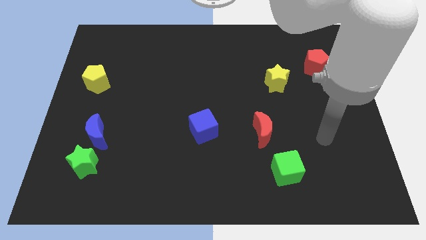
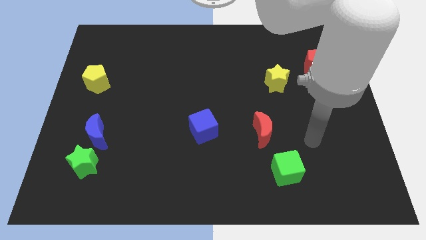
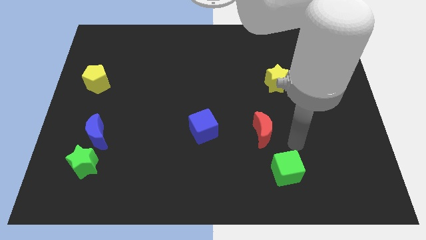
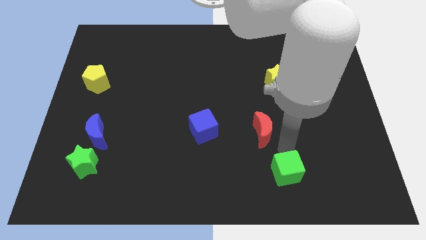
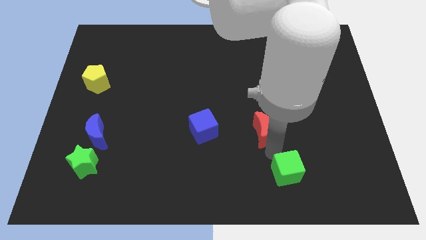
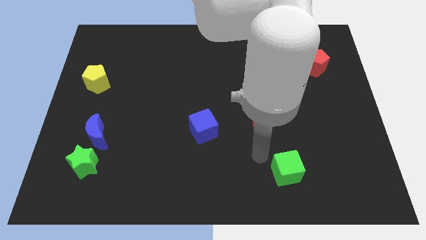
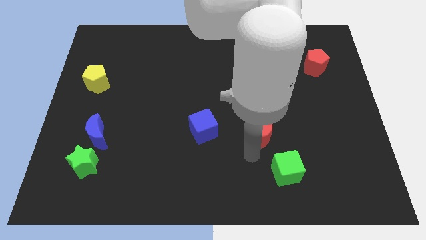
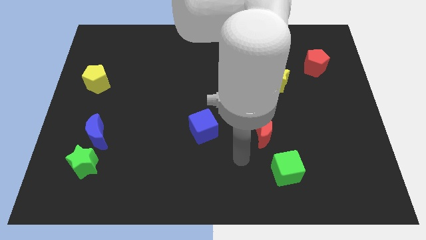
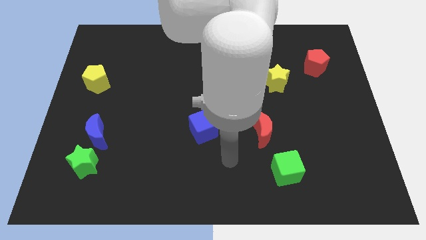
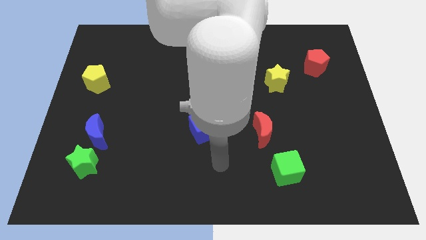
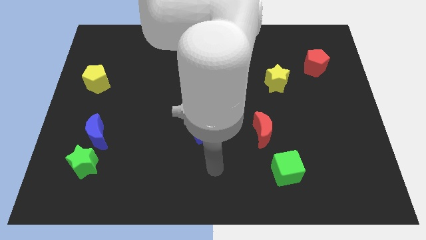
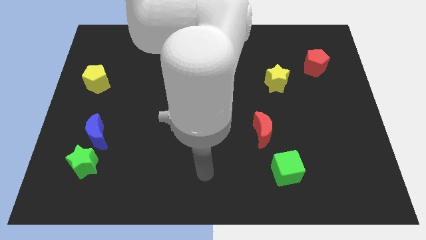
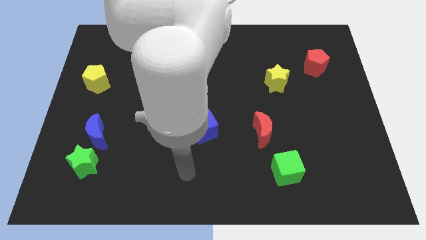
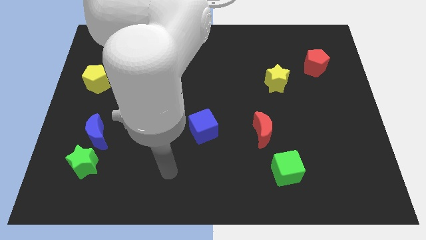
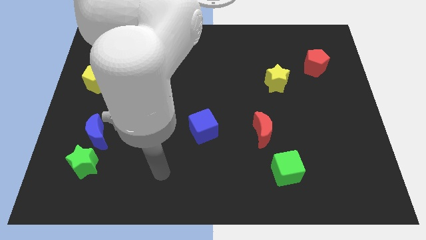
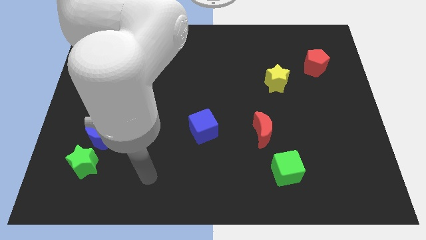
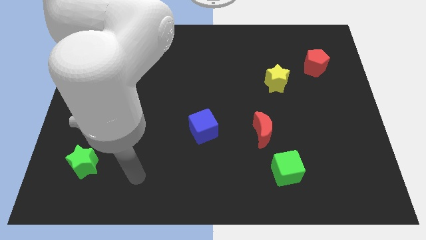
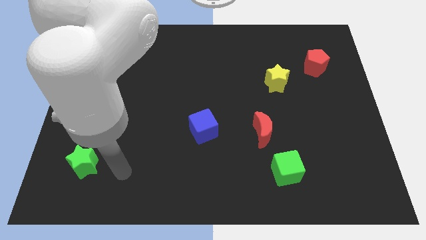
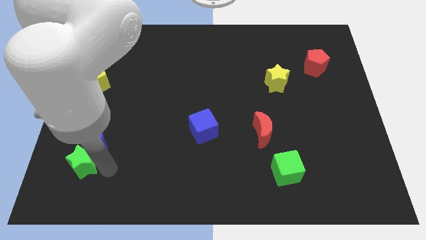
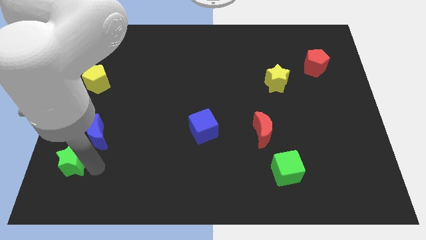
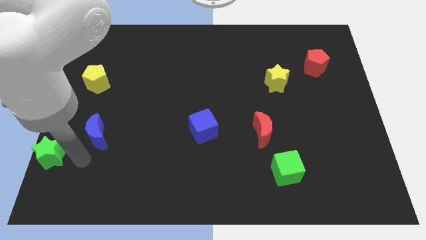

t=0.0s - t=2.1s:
move the blue moon away from the green star

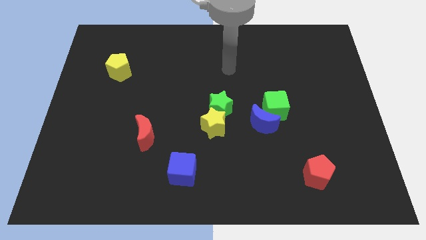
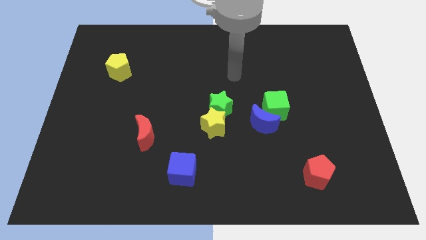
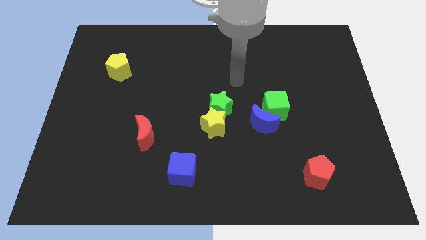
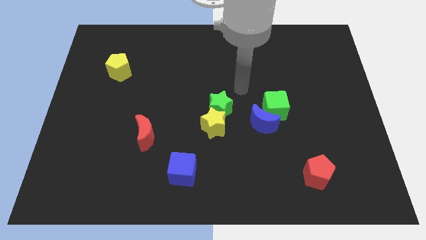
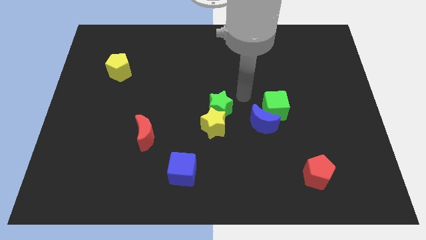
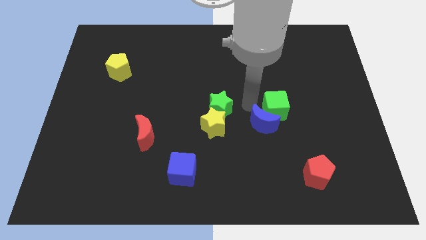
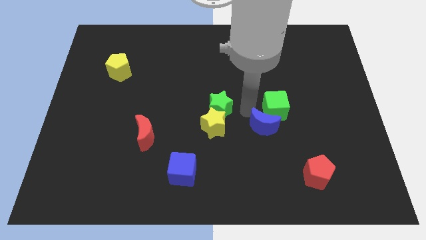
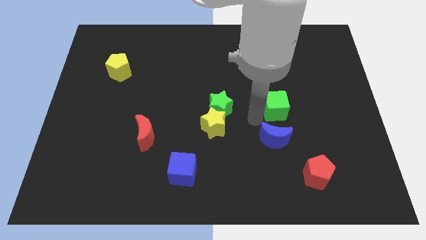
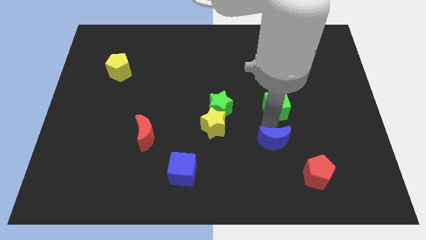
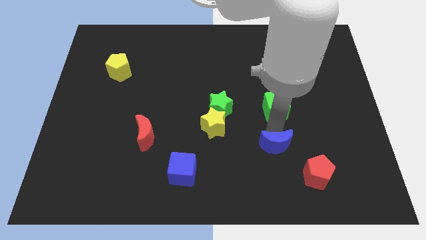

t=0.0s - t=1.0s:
separate the green cube from the blue moon

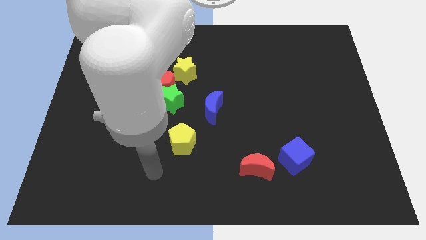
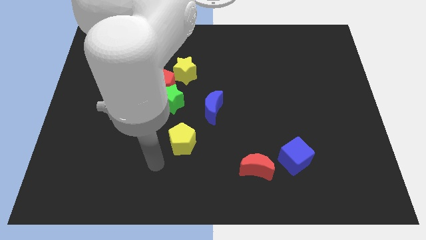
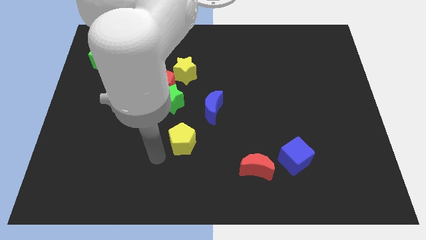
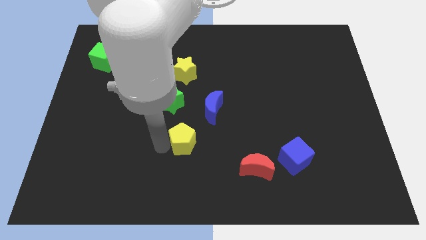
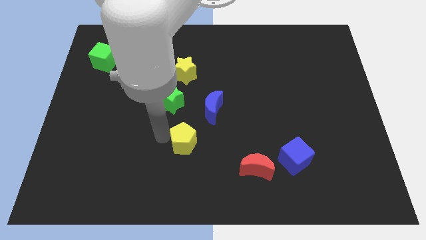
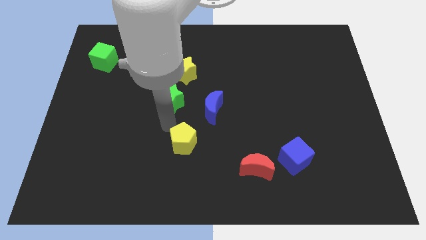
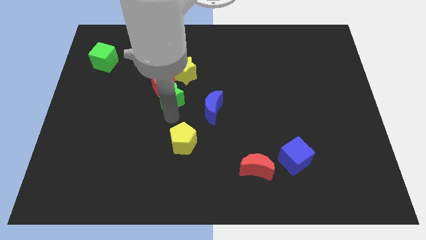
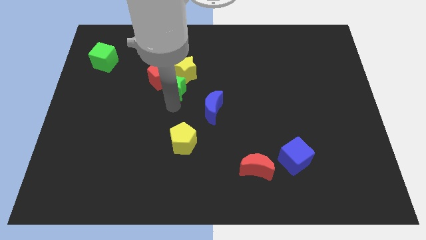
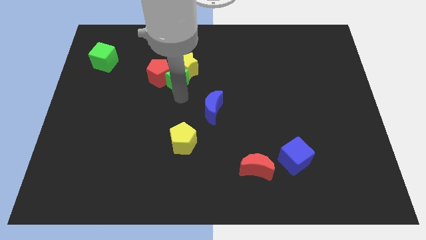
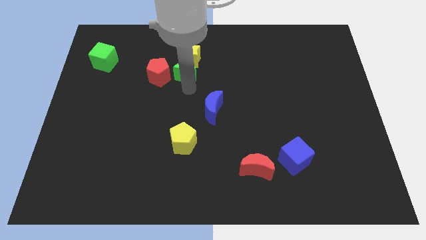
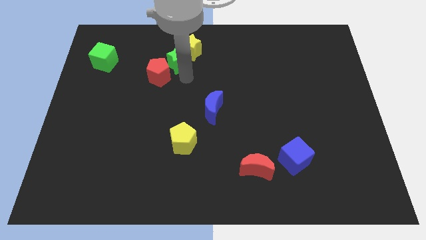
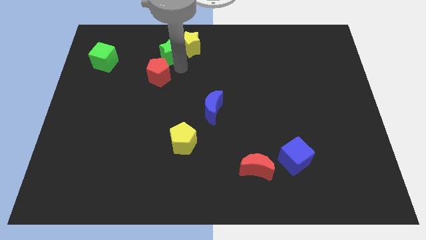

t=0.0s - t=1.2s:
separate the red pentagon from the green star and yellow star

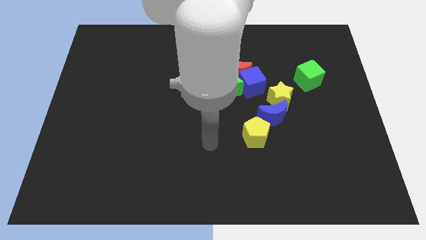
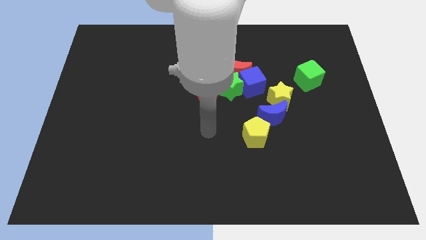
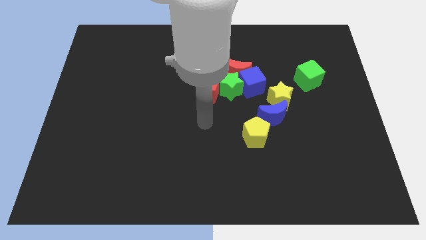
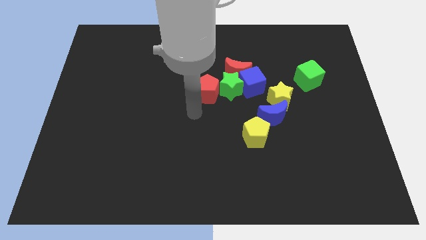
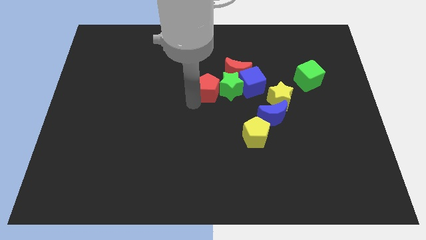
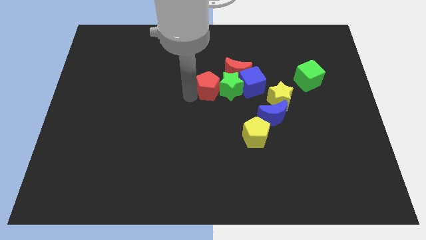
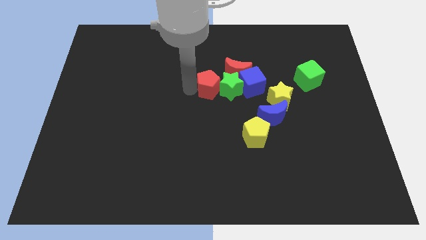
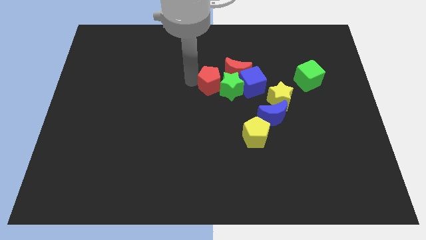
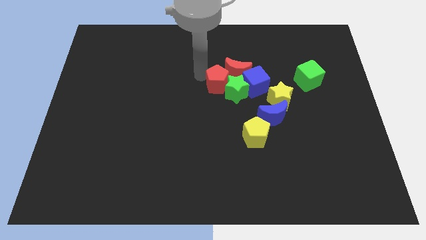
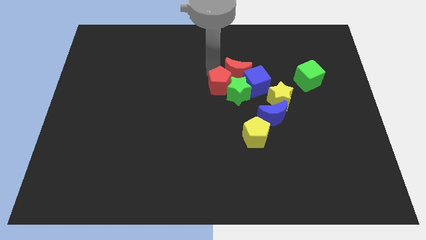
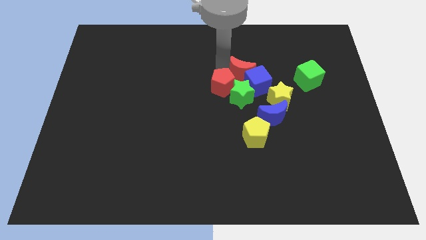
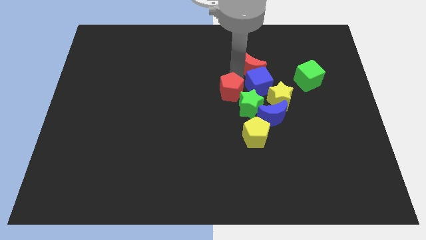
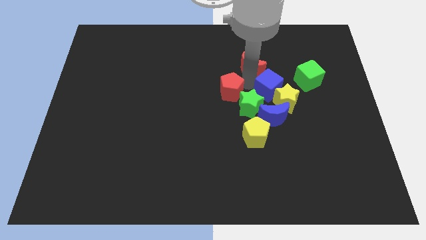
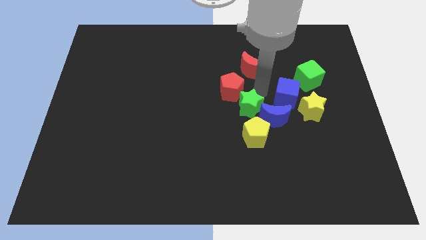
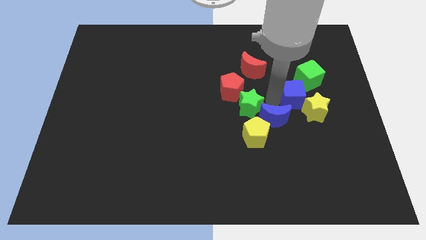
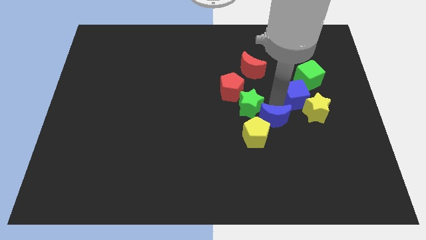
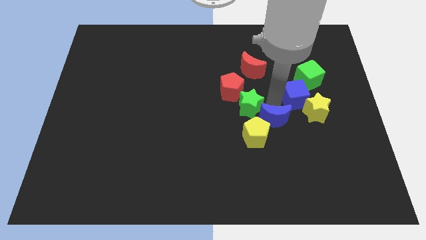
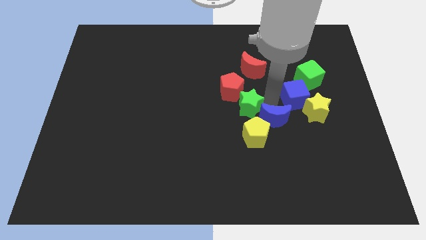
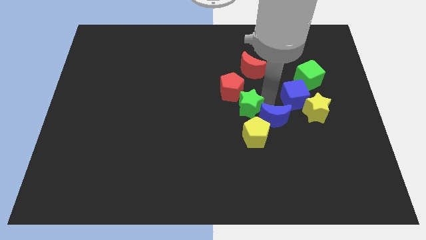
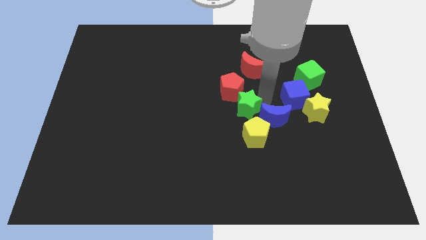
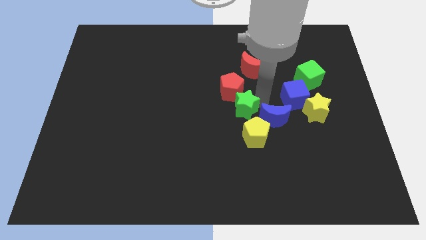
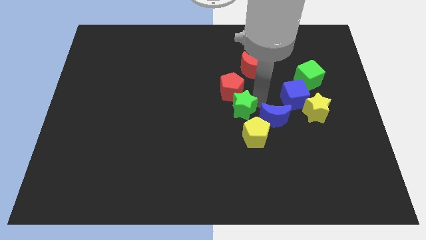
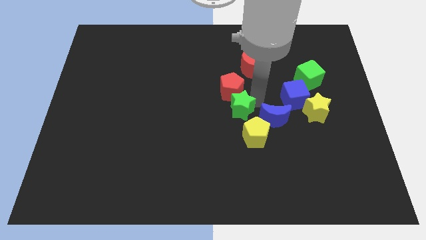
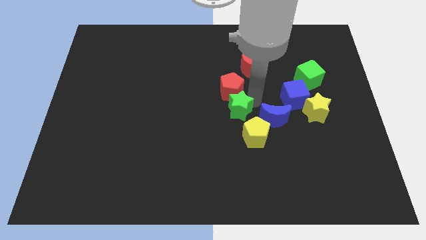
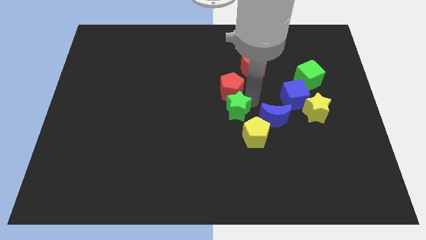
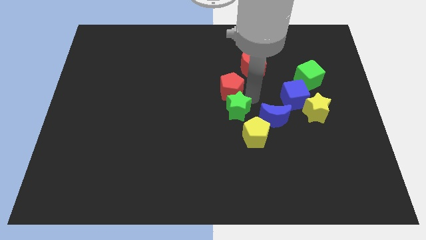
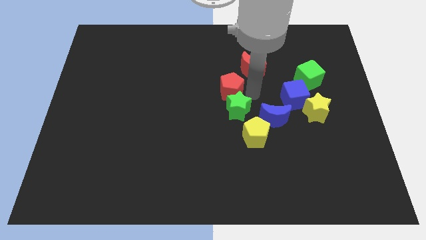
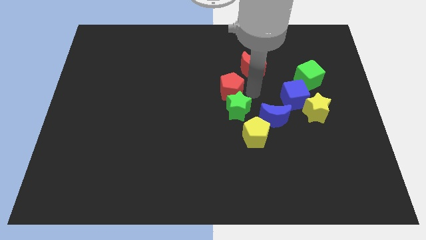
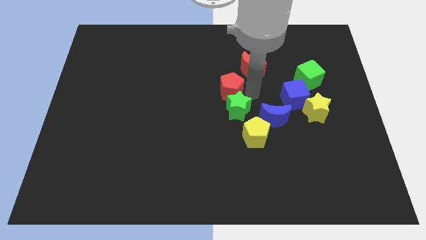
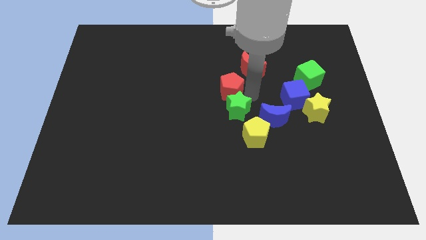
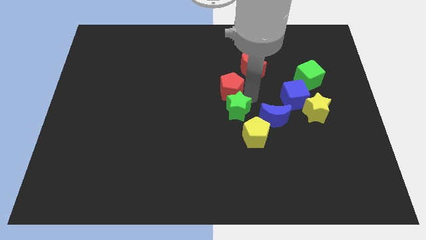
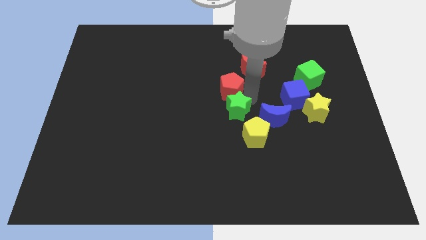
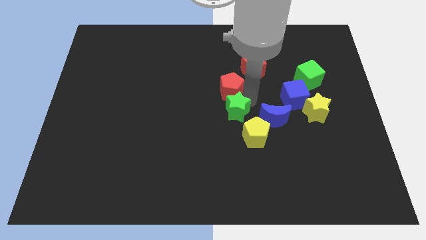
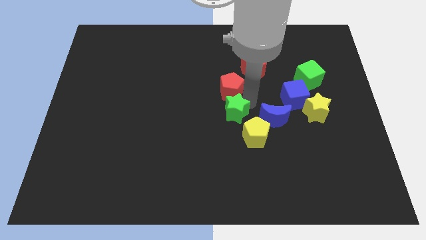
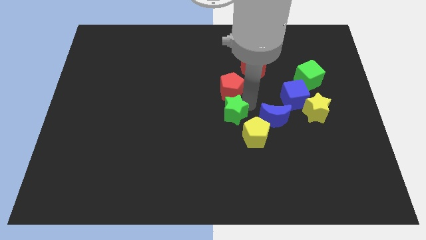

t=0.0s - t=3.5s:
pull the green star apart from the group of blocks

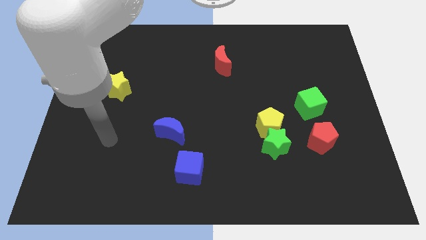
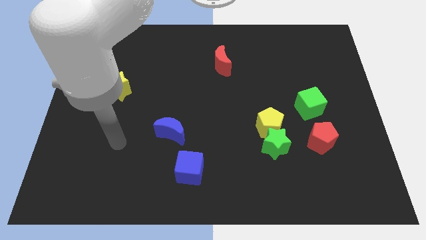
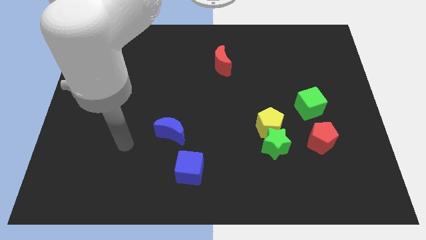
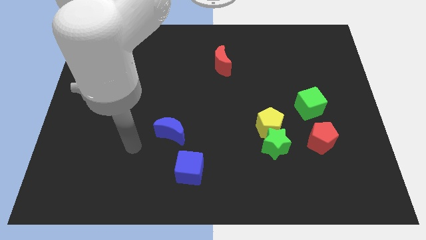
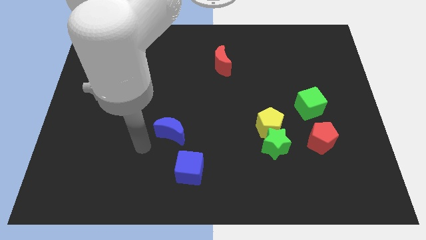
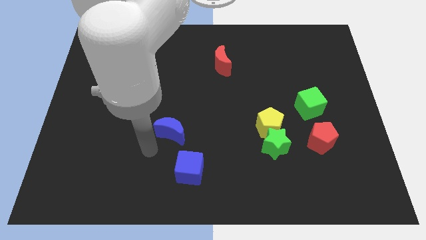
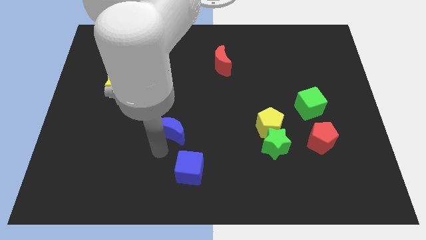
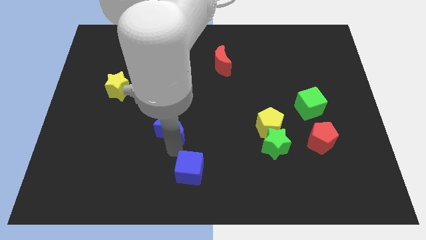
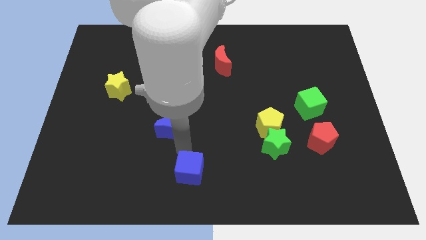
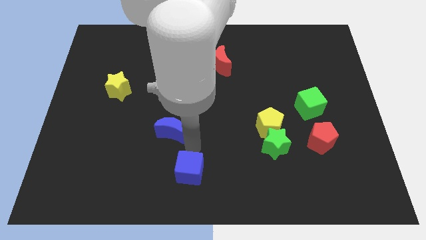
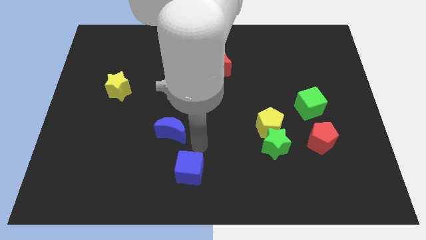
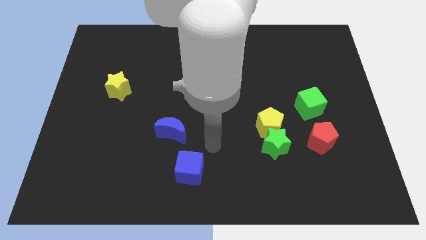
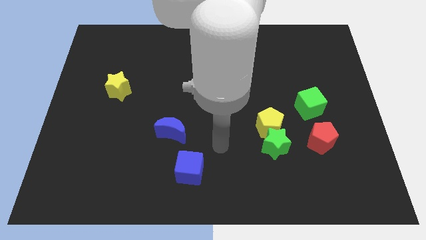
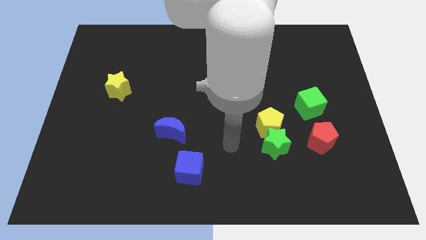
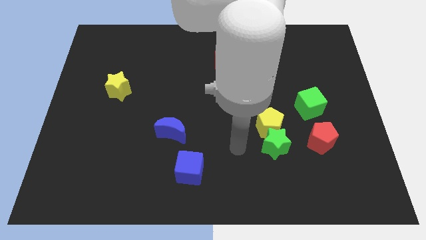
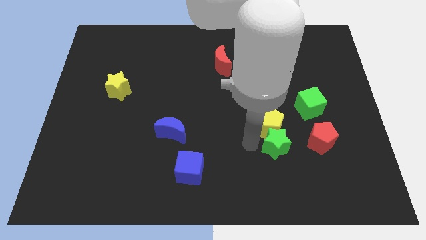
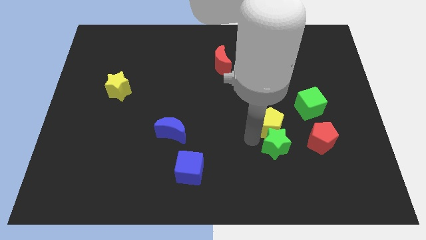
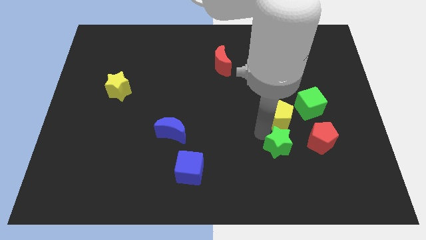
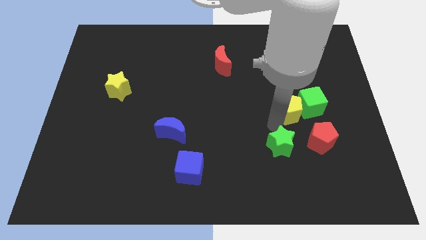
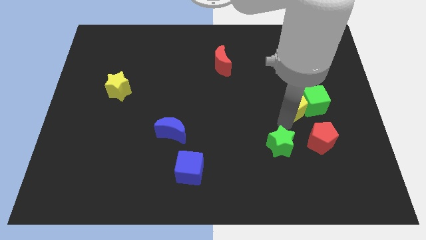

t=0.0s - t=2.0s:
separate the green star from the yellow pentagon
